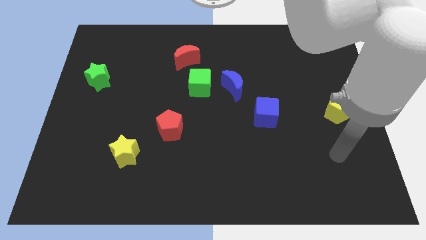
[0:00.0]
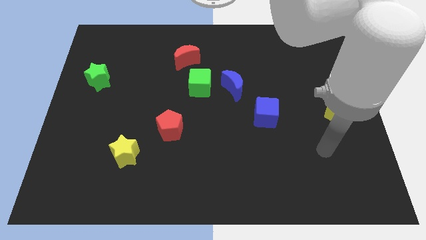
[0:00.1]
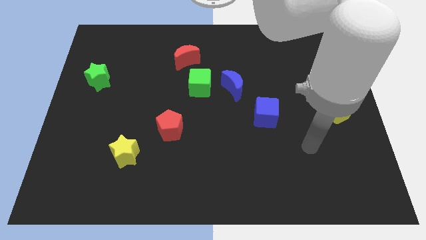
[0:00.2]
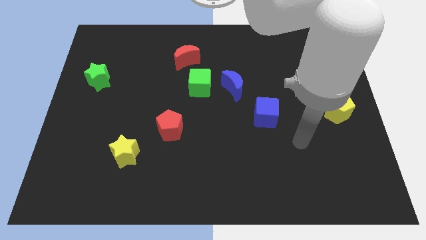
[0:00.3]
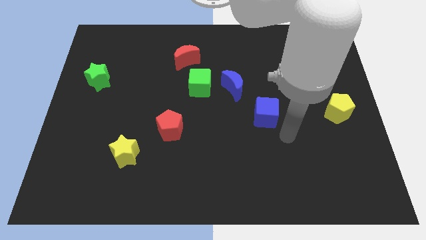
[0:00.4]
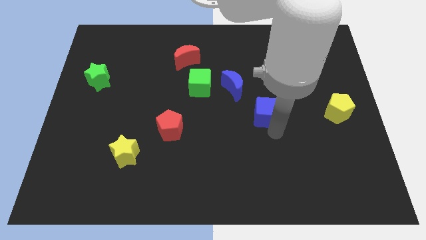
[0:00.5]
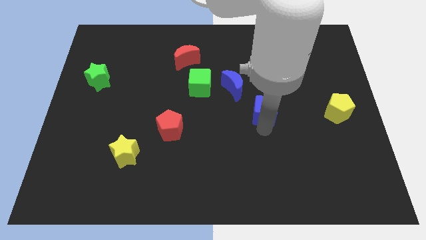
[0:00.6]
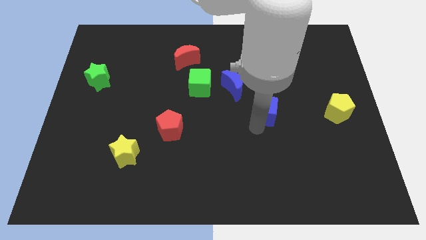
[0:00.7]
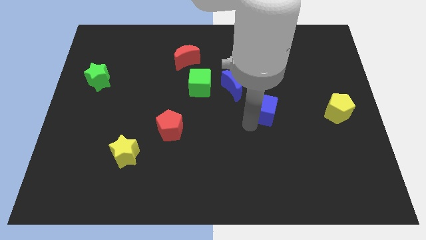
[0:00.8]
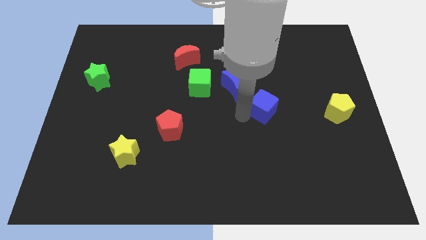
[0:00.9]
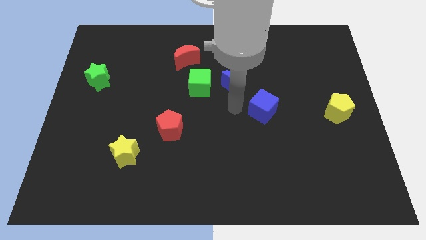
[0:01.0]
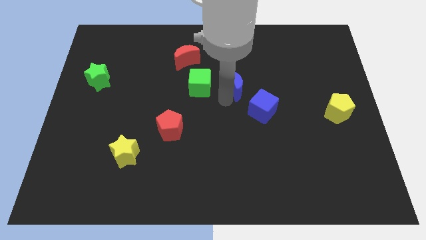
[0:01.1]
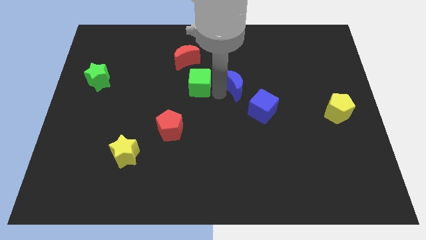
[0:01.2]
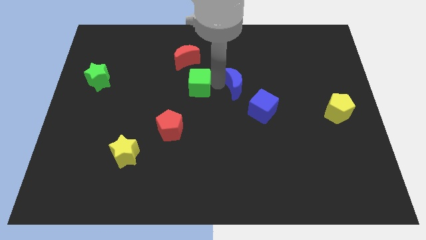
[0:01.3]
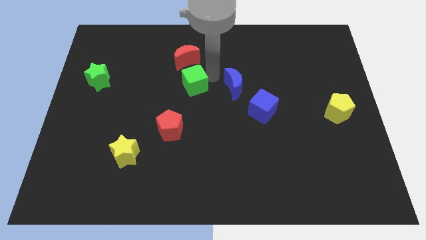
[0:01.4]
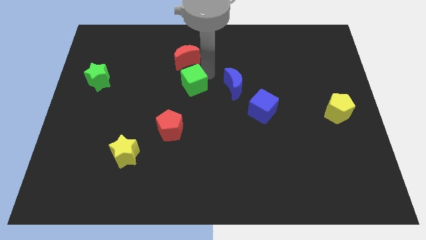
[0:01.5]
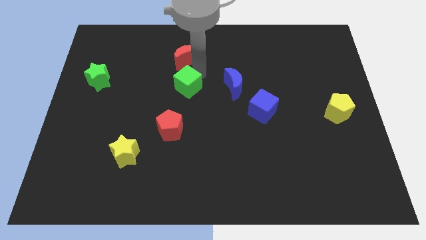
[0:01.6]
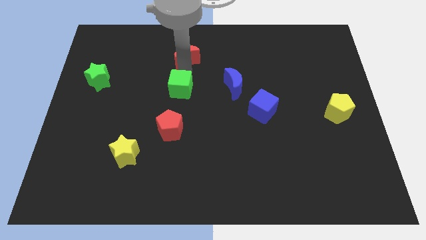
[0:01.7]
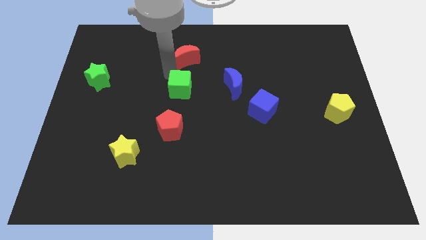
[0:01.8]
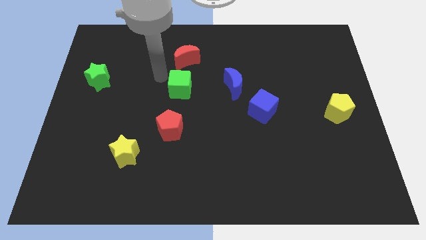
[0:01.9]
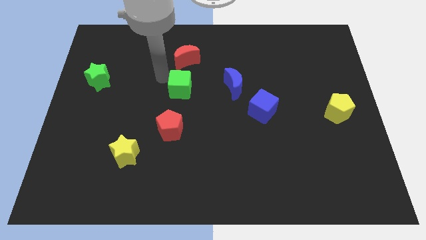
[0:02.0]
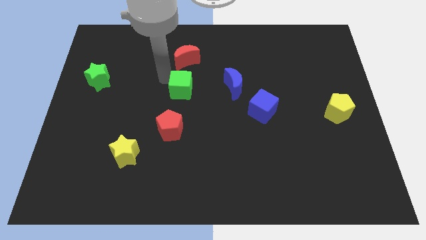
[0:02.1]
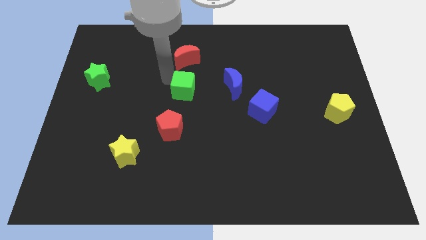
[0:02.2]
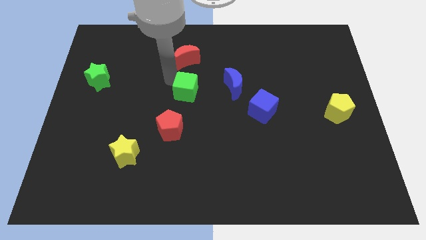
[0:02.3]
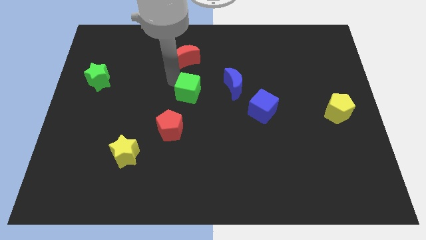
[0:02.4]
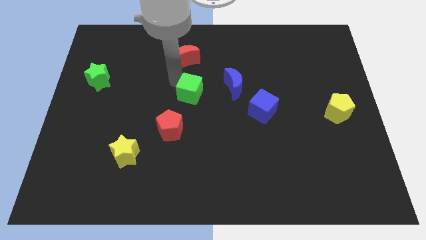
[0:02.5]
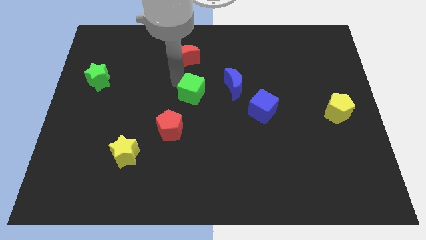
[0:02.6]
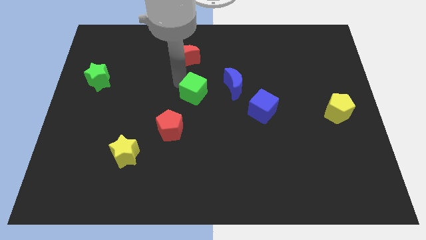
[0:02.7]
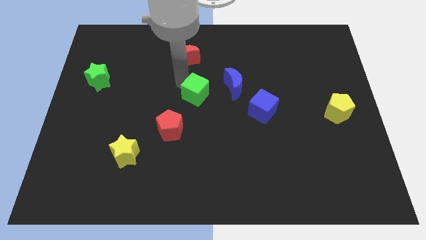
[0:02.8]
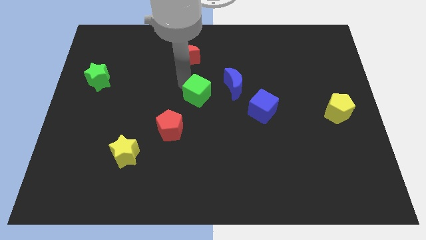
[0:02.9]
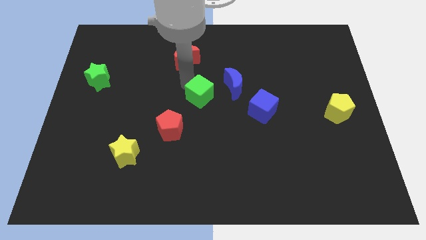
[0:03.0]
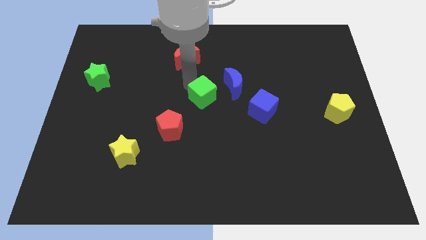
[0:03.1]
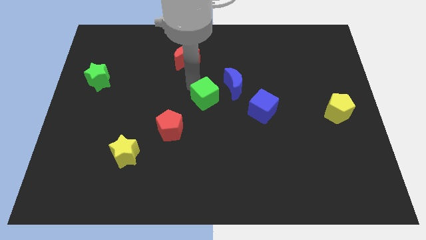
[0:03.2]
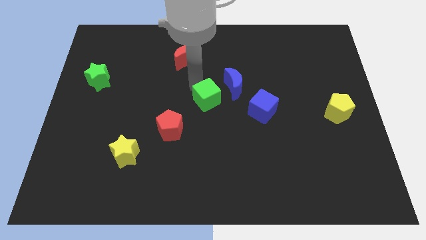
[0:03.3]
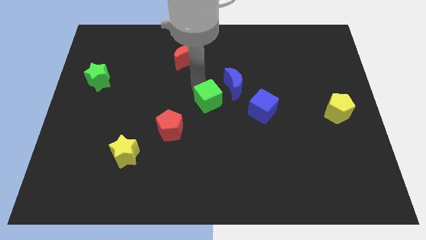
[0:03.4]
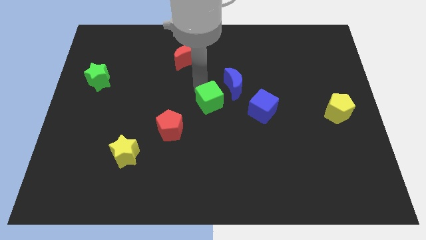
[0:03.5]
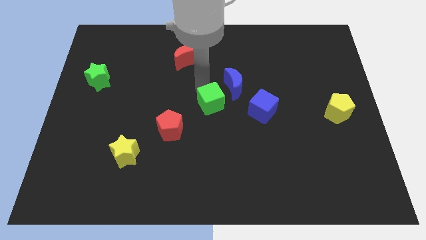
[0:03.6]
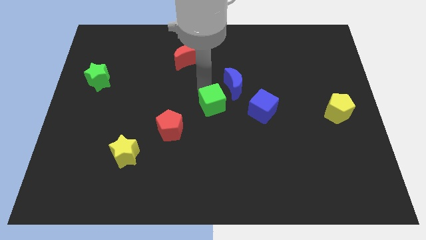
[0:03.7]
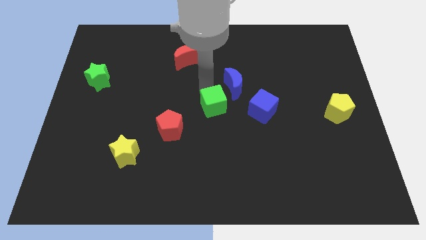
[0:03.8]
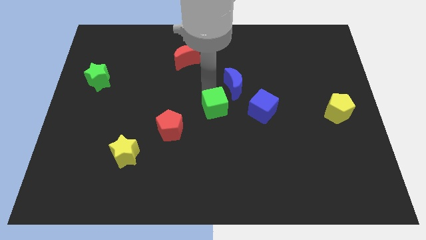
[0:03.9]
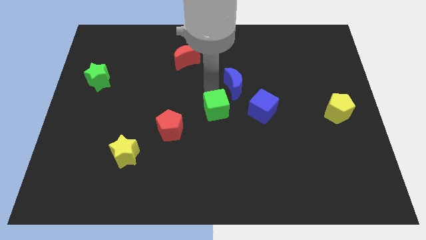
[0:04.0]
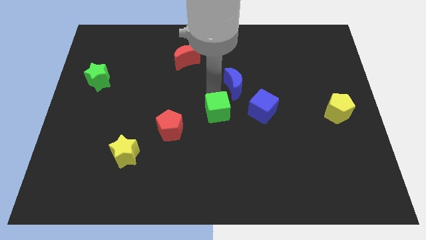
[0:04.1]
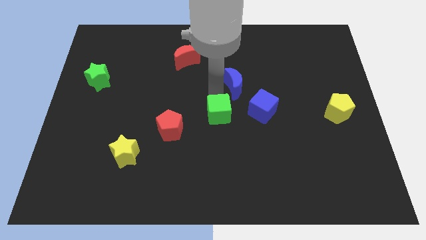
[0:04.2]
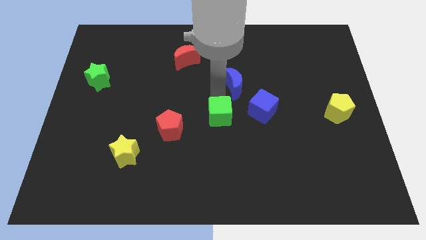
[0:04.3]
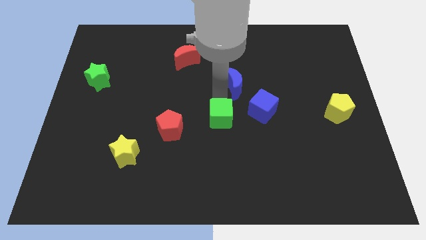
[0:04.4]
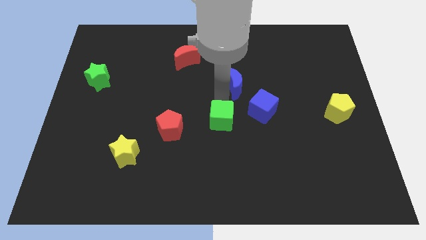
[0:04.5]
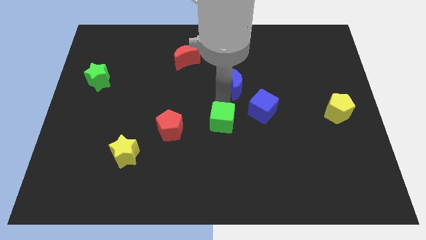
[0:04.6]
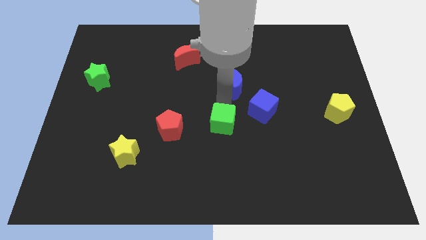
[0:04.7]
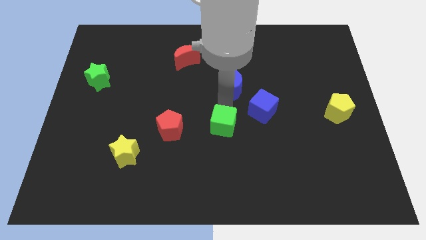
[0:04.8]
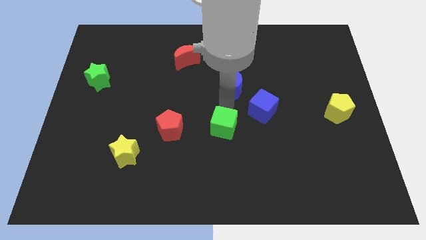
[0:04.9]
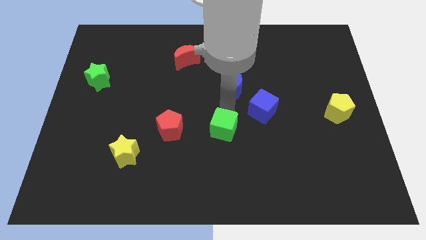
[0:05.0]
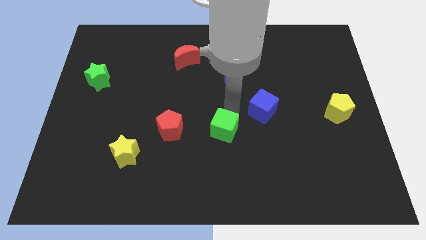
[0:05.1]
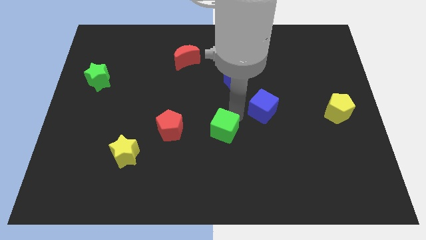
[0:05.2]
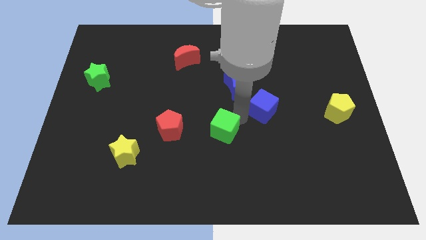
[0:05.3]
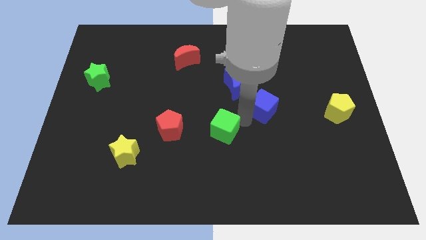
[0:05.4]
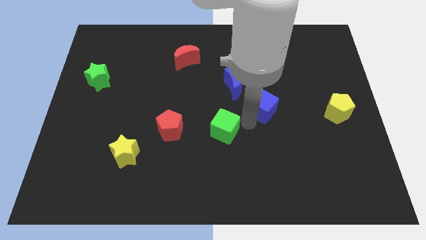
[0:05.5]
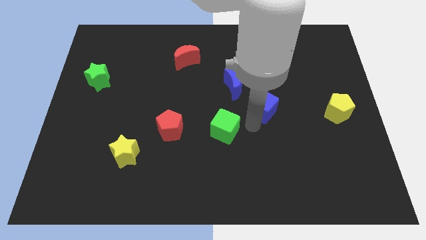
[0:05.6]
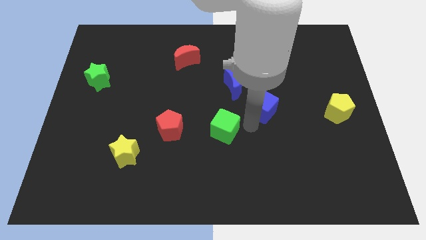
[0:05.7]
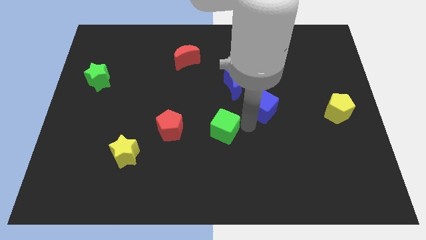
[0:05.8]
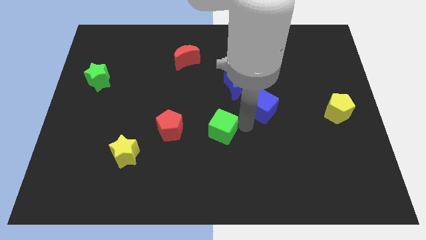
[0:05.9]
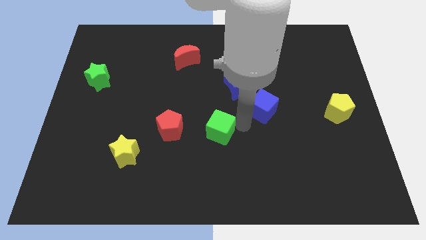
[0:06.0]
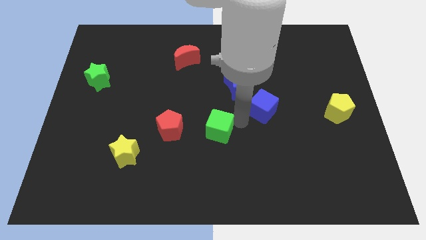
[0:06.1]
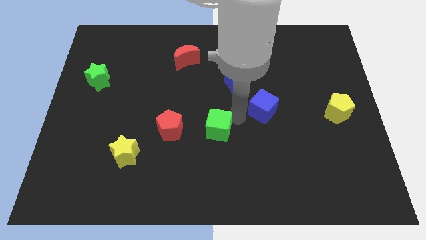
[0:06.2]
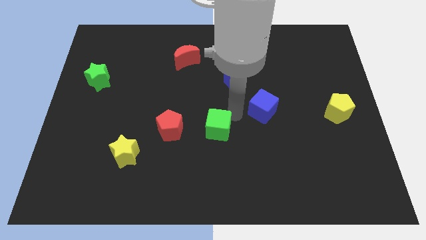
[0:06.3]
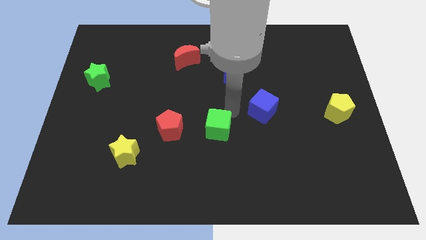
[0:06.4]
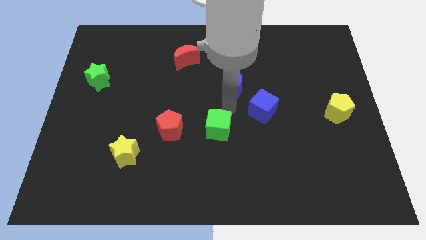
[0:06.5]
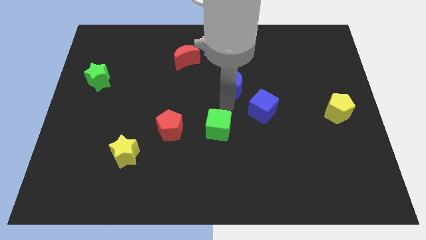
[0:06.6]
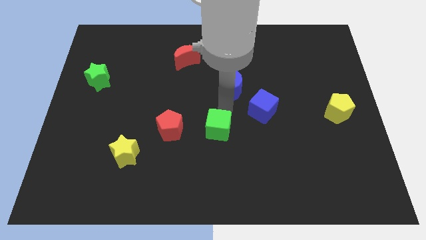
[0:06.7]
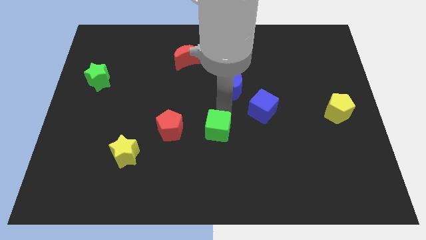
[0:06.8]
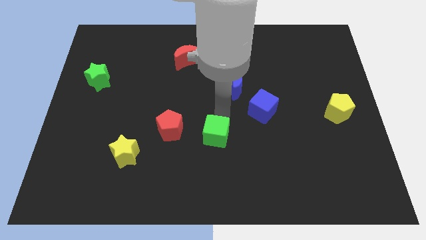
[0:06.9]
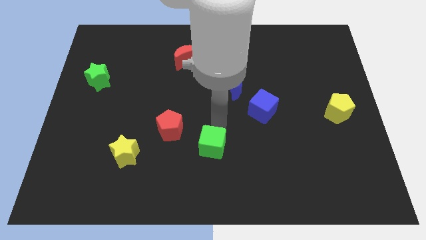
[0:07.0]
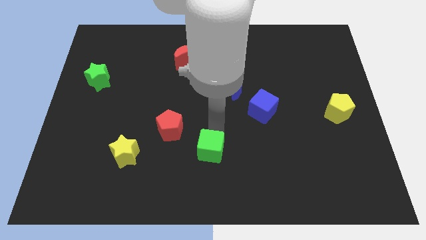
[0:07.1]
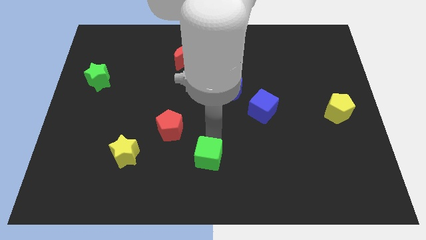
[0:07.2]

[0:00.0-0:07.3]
push the green cube to the bottom

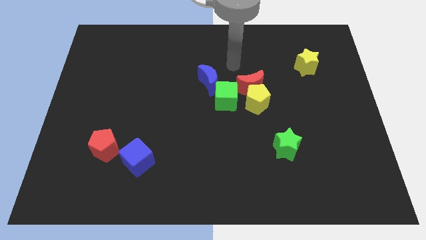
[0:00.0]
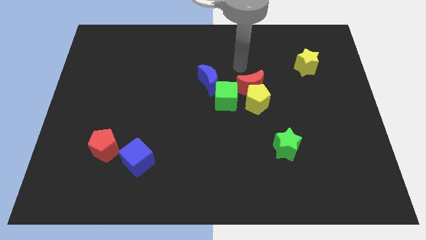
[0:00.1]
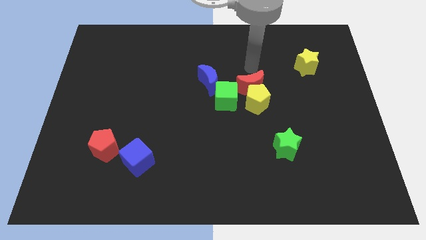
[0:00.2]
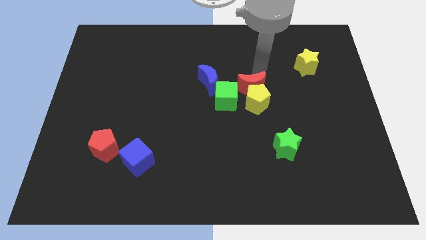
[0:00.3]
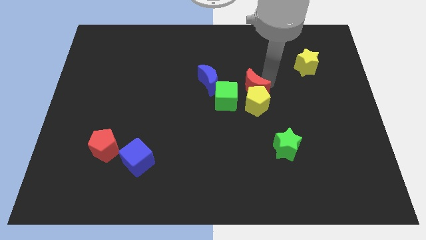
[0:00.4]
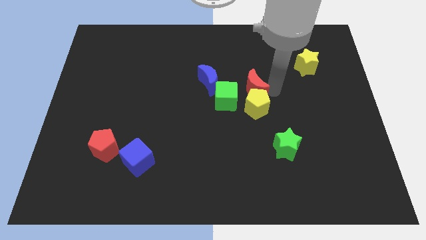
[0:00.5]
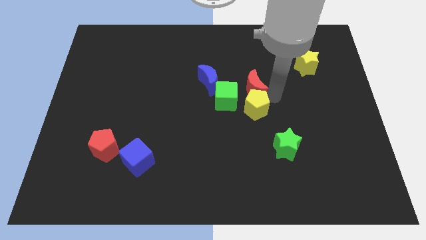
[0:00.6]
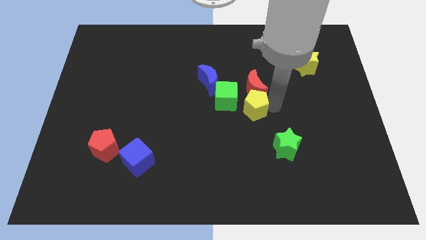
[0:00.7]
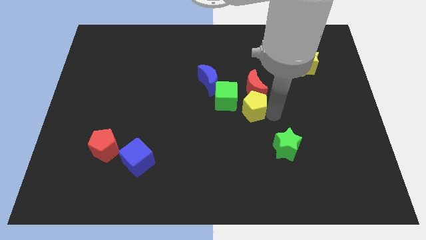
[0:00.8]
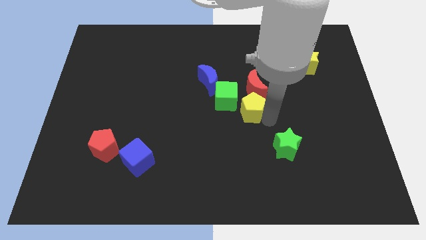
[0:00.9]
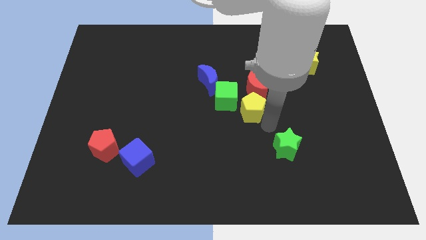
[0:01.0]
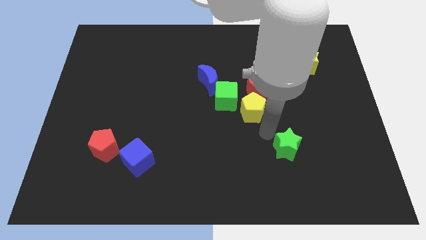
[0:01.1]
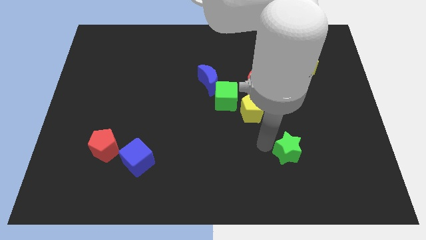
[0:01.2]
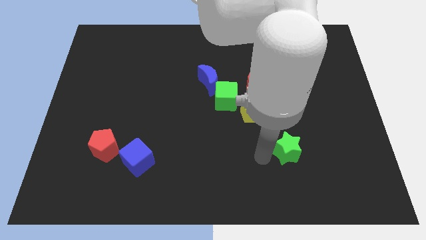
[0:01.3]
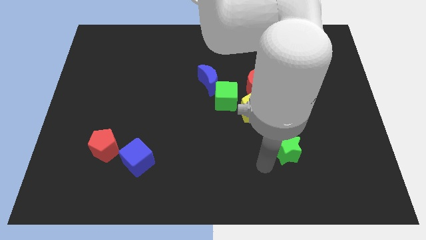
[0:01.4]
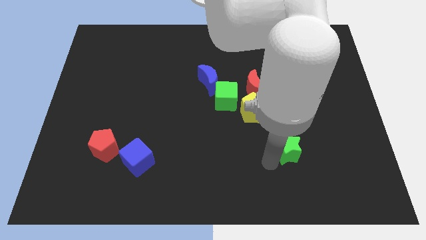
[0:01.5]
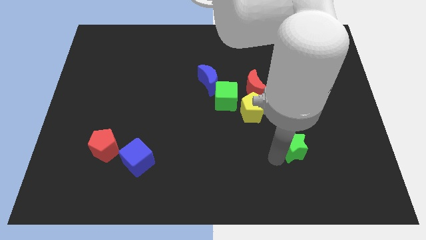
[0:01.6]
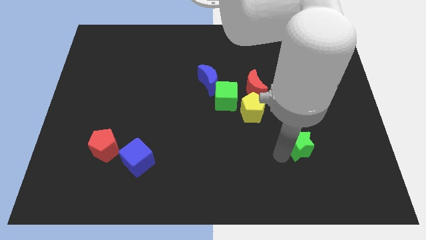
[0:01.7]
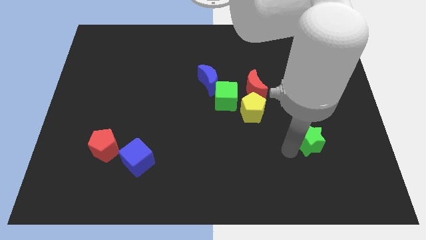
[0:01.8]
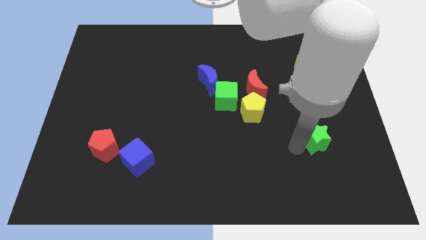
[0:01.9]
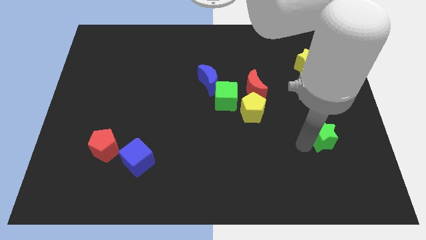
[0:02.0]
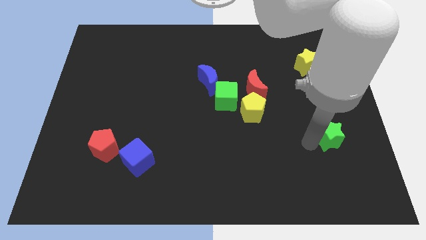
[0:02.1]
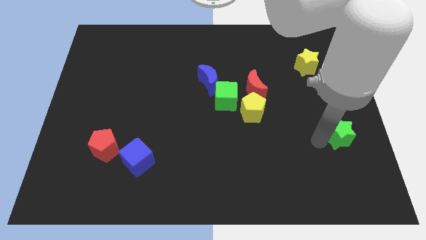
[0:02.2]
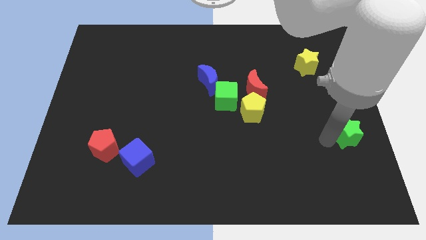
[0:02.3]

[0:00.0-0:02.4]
put the green star to the right side of the board
